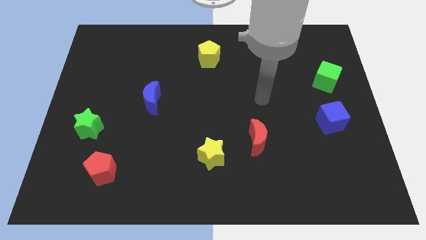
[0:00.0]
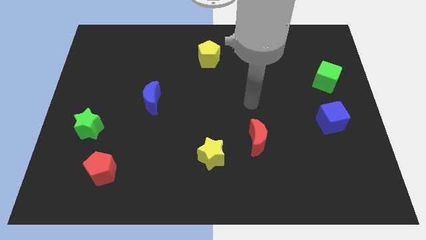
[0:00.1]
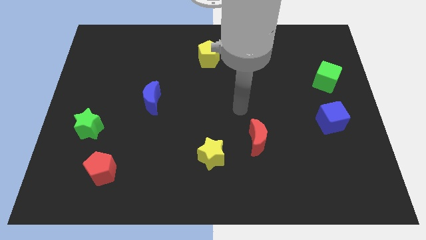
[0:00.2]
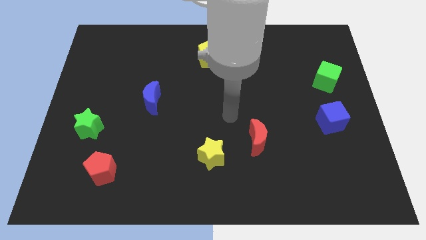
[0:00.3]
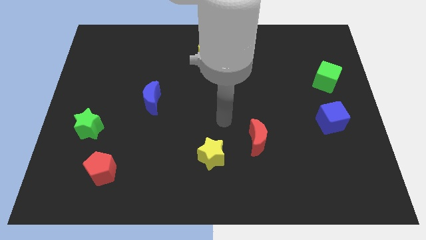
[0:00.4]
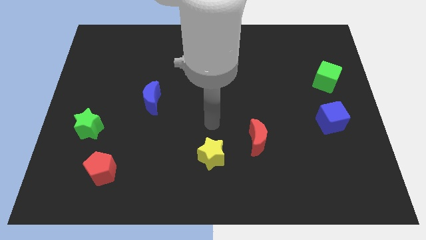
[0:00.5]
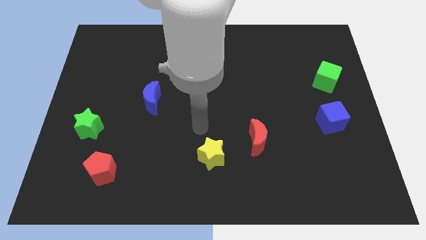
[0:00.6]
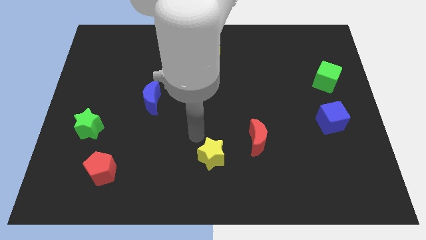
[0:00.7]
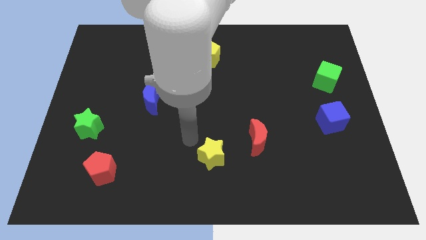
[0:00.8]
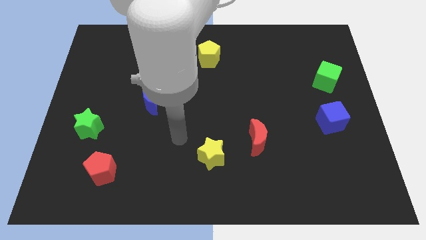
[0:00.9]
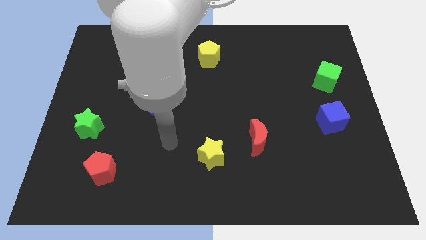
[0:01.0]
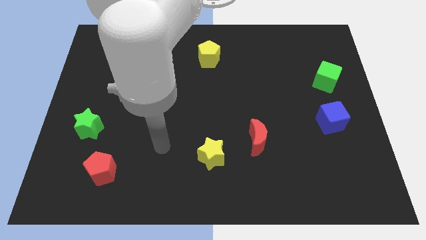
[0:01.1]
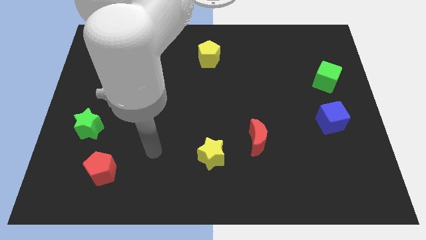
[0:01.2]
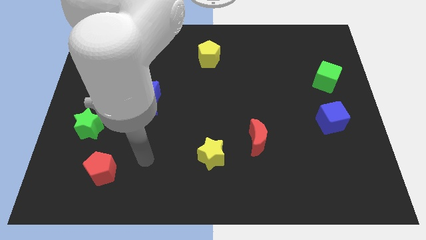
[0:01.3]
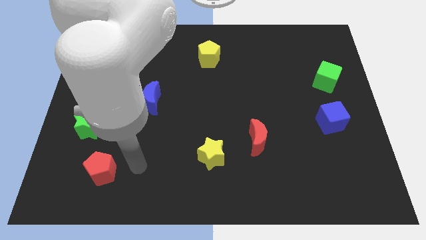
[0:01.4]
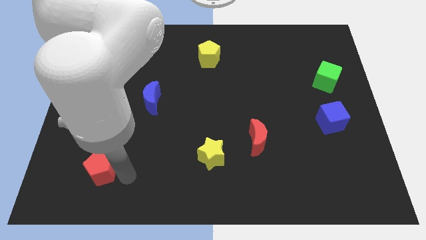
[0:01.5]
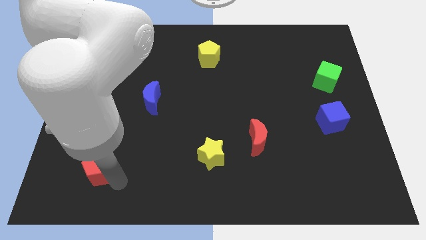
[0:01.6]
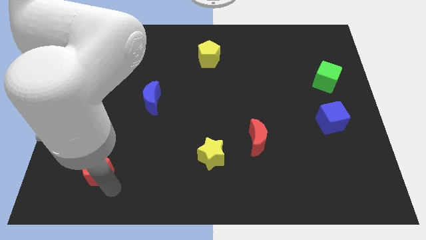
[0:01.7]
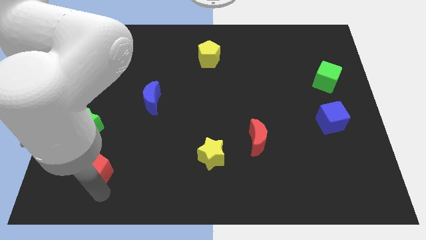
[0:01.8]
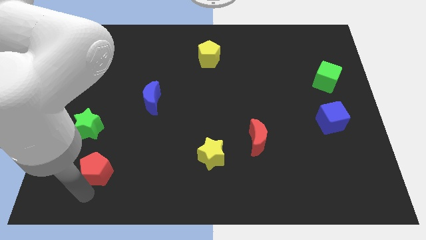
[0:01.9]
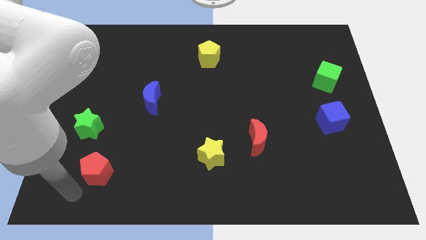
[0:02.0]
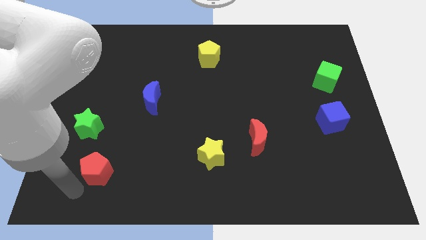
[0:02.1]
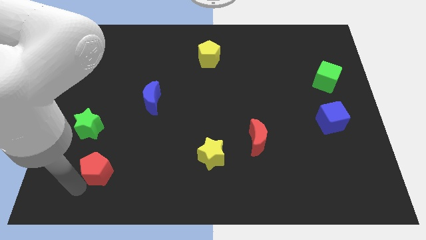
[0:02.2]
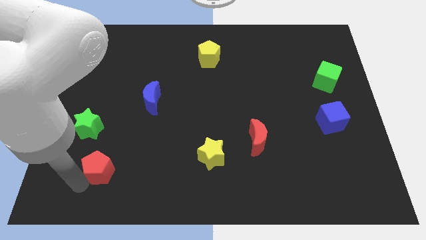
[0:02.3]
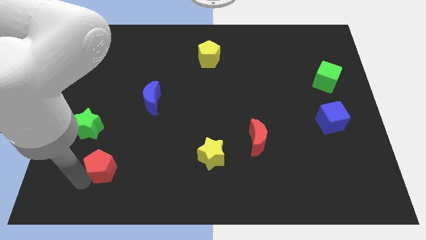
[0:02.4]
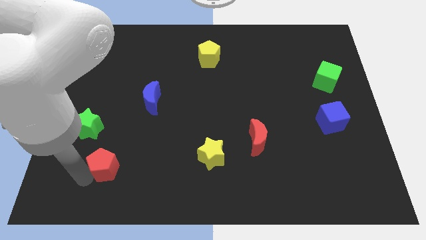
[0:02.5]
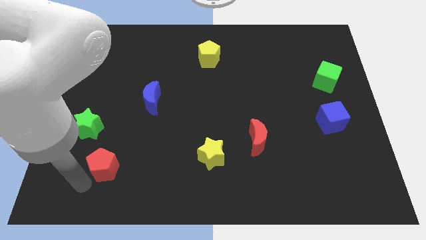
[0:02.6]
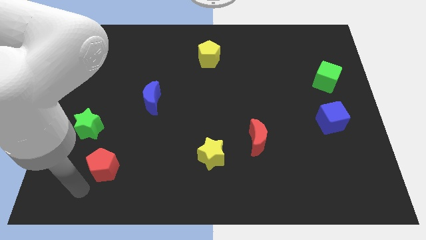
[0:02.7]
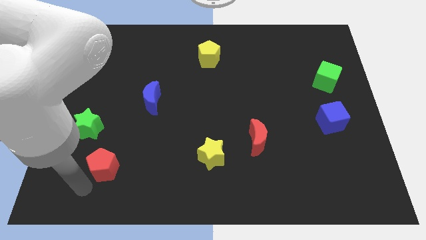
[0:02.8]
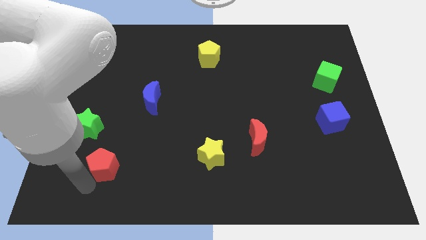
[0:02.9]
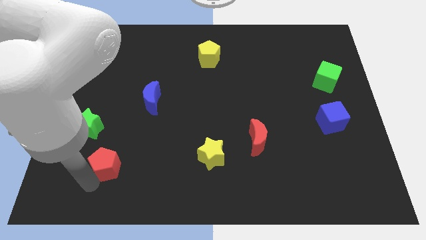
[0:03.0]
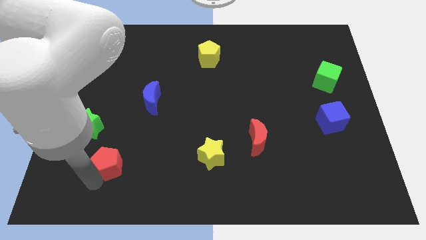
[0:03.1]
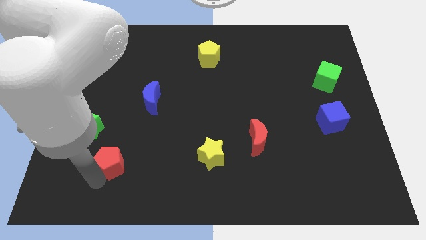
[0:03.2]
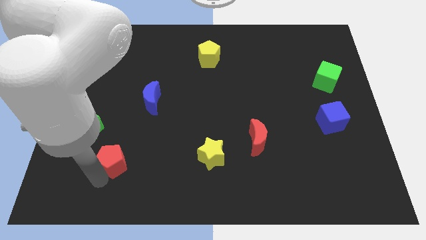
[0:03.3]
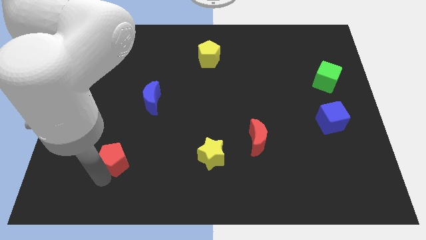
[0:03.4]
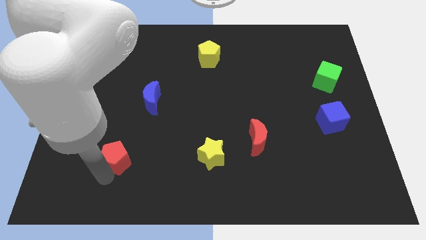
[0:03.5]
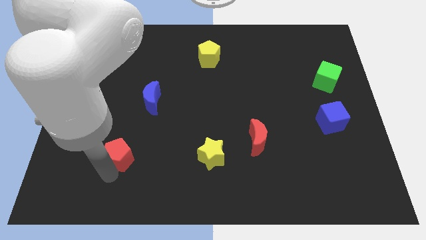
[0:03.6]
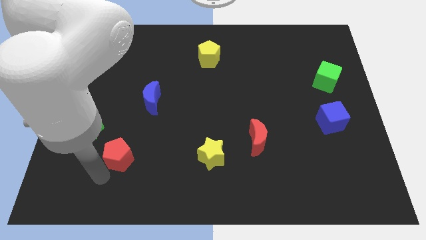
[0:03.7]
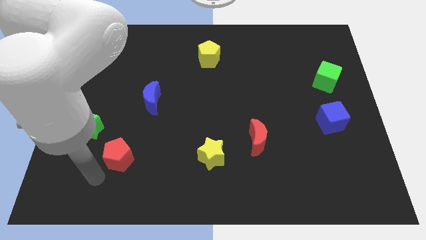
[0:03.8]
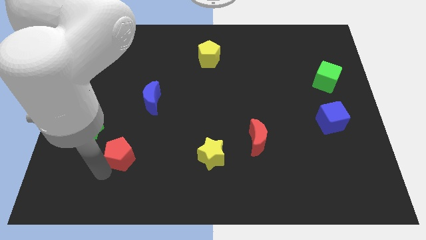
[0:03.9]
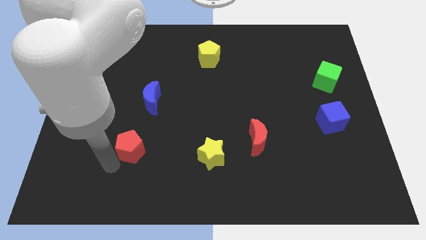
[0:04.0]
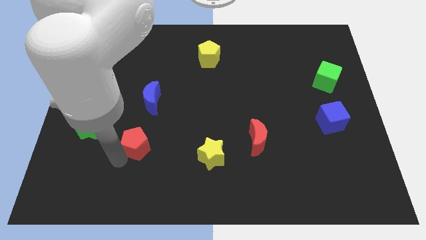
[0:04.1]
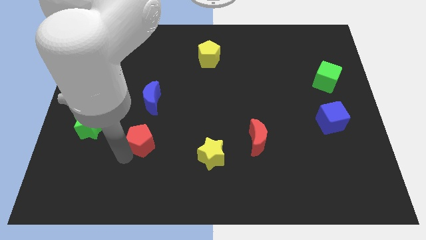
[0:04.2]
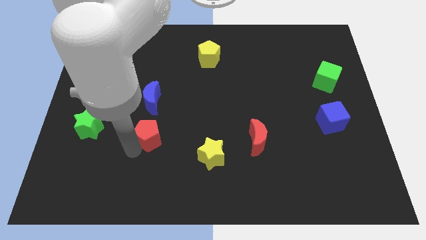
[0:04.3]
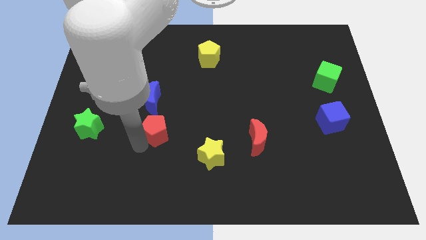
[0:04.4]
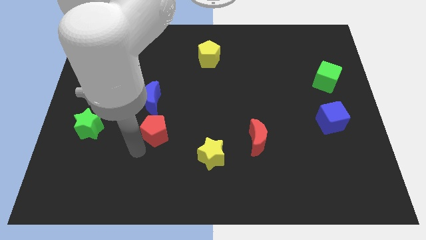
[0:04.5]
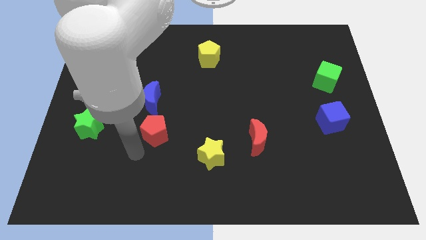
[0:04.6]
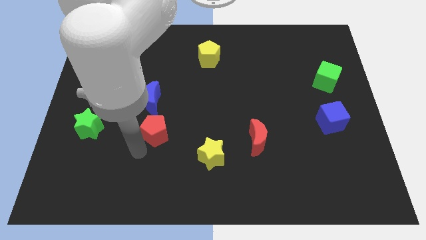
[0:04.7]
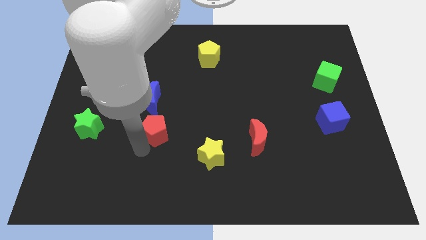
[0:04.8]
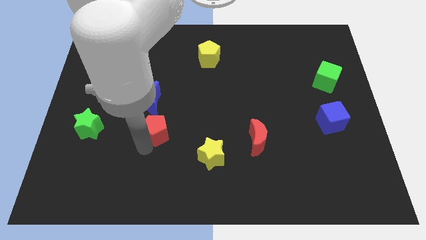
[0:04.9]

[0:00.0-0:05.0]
slide the red pentagon to the bottom right side of the blue moon

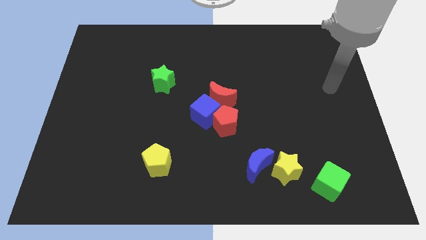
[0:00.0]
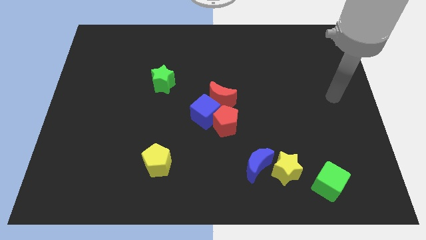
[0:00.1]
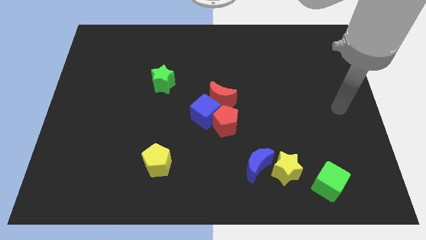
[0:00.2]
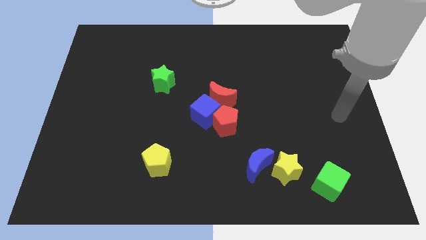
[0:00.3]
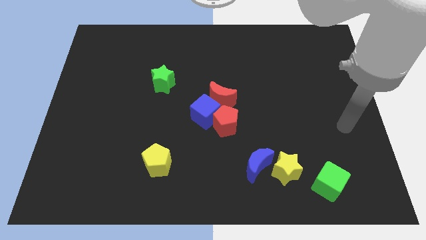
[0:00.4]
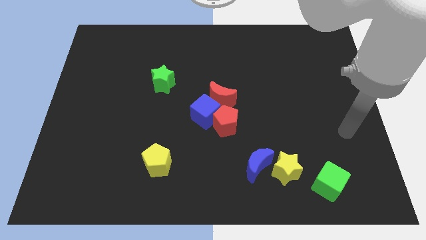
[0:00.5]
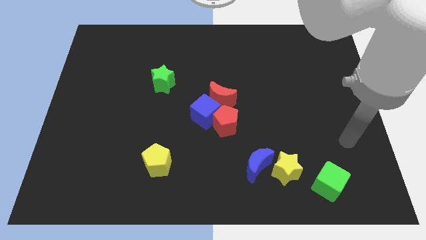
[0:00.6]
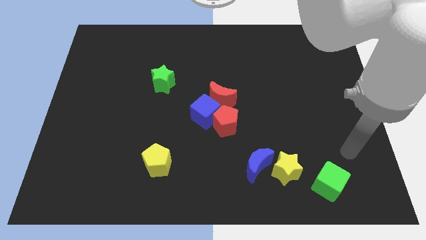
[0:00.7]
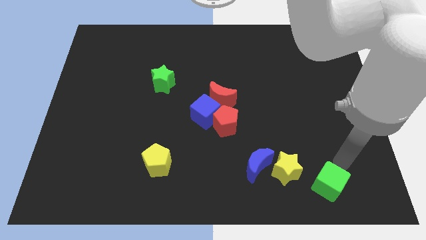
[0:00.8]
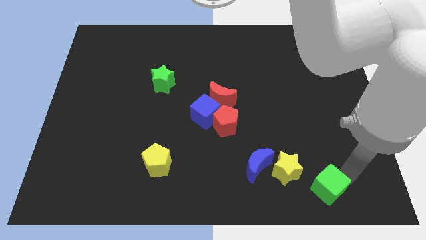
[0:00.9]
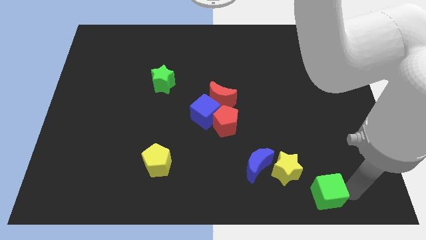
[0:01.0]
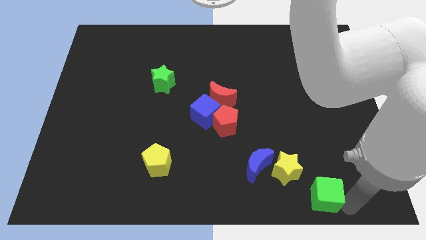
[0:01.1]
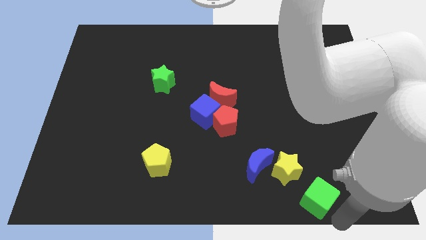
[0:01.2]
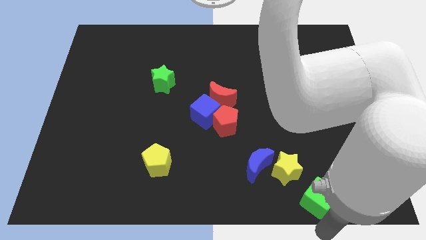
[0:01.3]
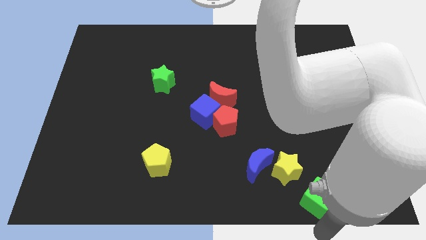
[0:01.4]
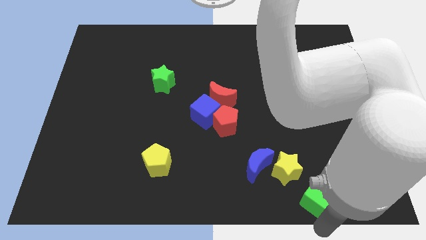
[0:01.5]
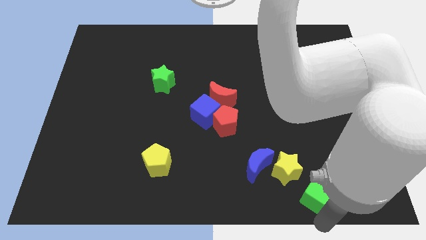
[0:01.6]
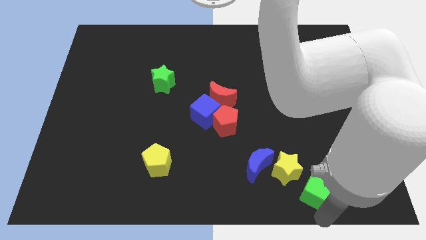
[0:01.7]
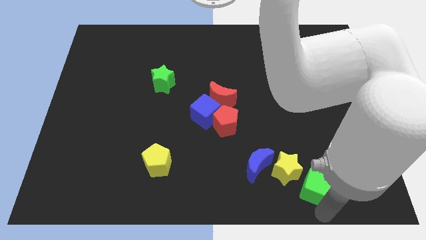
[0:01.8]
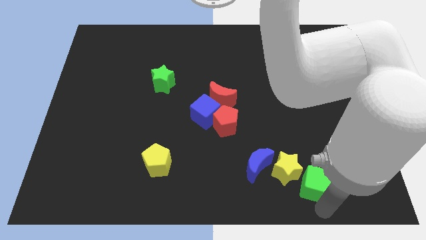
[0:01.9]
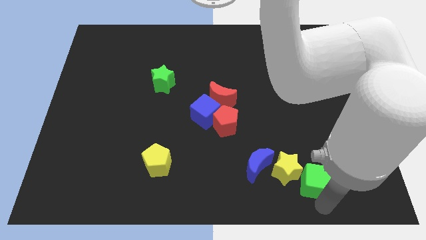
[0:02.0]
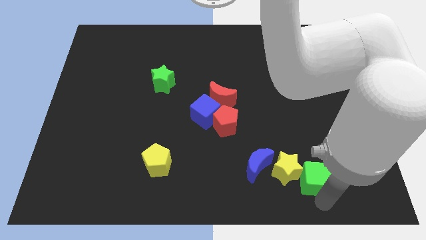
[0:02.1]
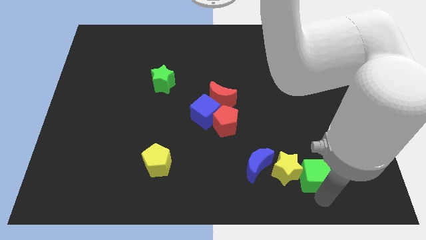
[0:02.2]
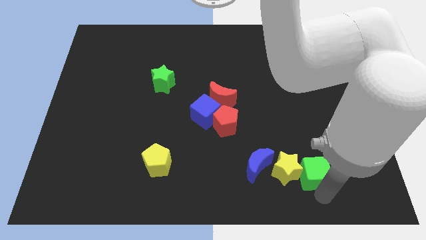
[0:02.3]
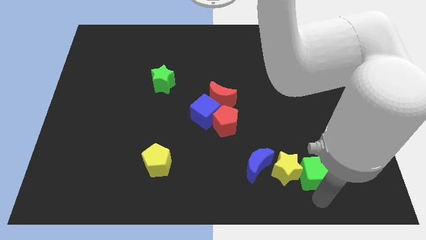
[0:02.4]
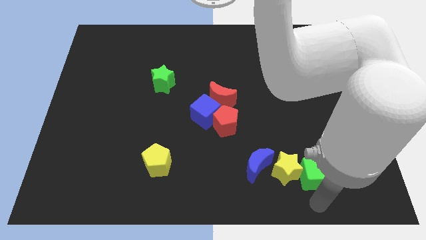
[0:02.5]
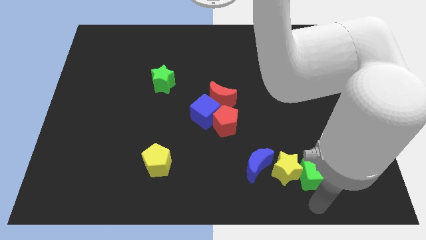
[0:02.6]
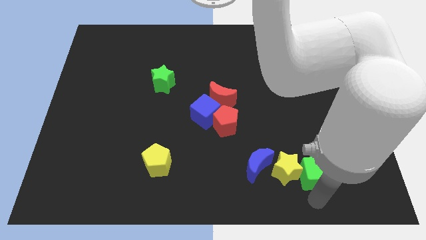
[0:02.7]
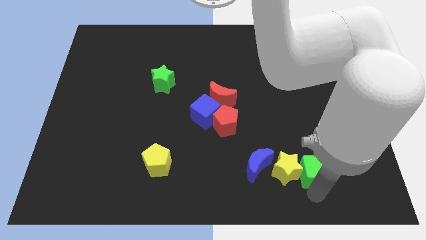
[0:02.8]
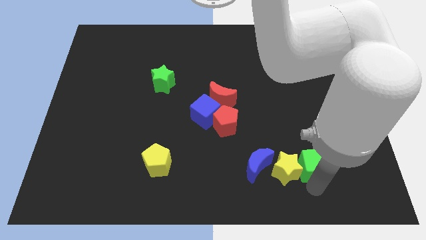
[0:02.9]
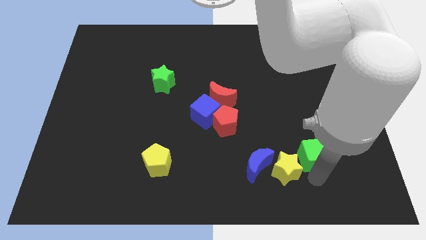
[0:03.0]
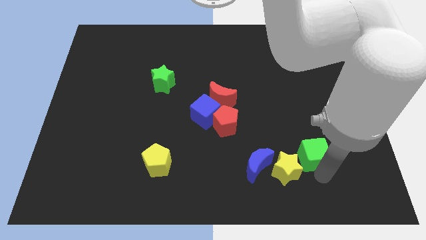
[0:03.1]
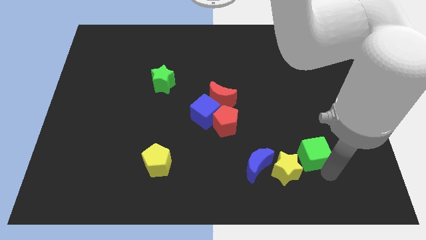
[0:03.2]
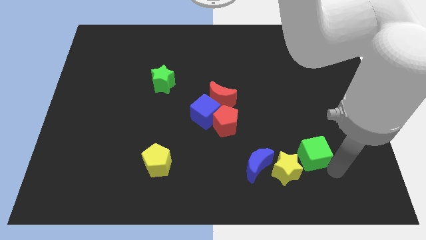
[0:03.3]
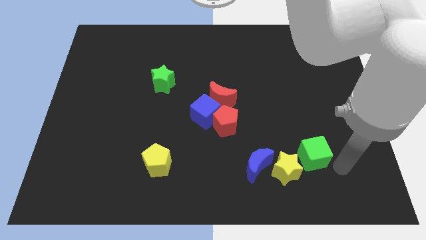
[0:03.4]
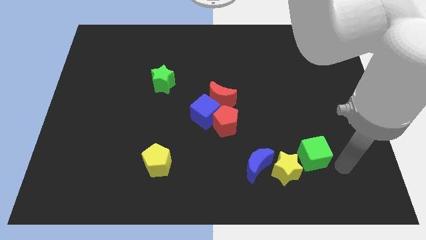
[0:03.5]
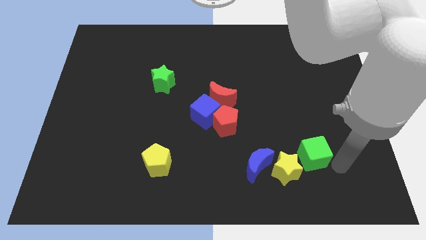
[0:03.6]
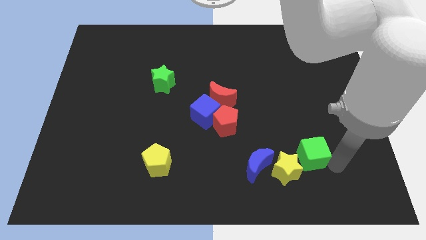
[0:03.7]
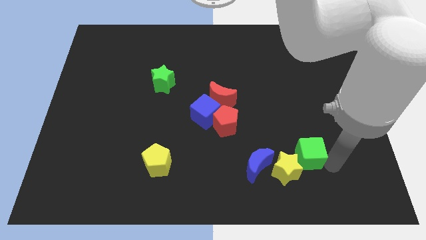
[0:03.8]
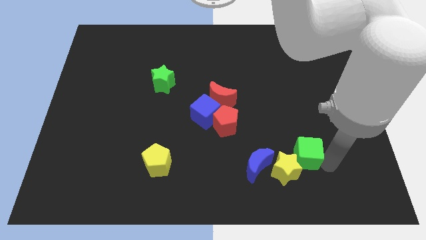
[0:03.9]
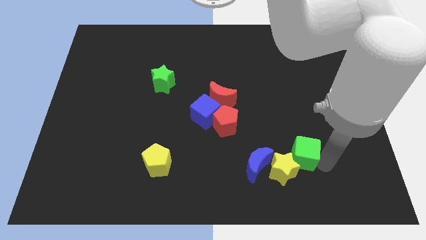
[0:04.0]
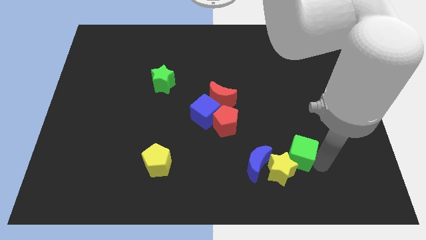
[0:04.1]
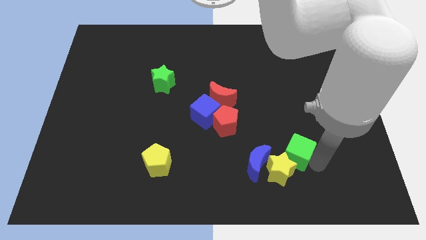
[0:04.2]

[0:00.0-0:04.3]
put the green cube diagonally up and to the right of the blue moon
